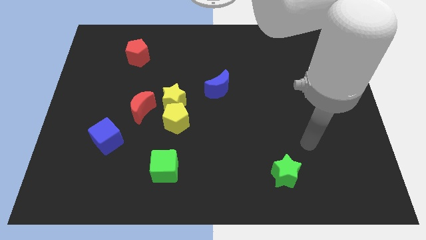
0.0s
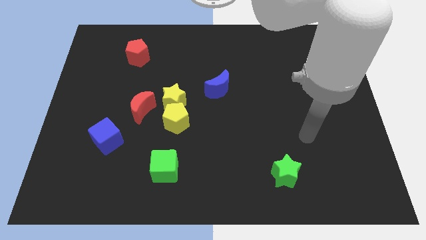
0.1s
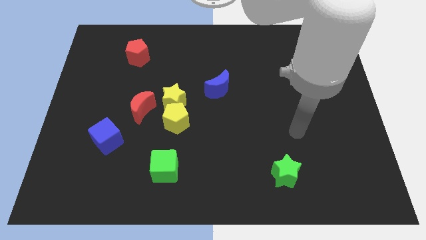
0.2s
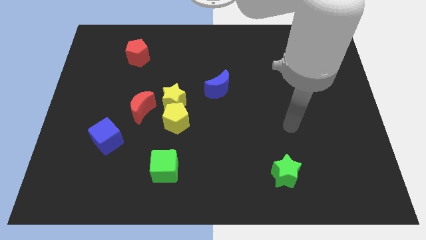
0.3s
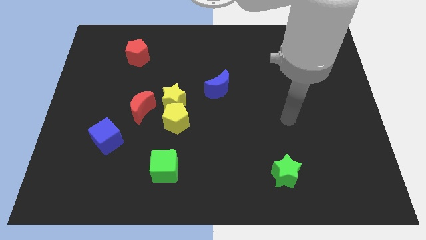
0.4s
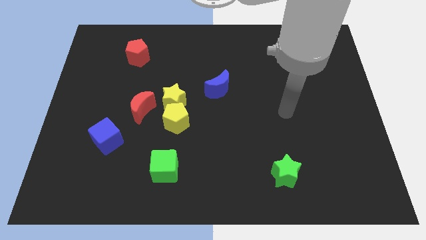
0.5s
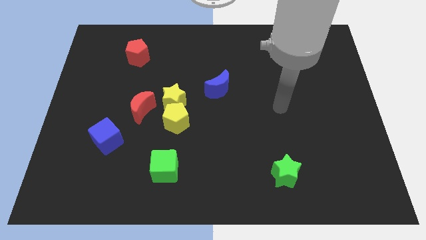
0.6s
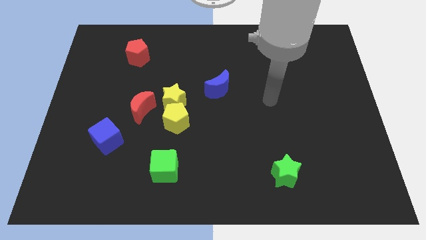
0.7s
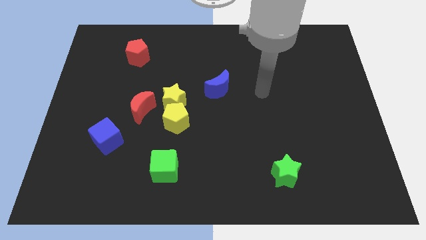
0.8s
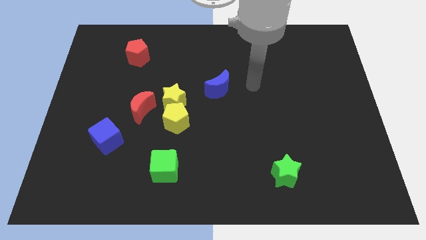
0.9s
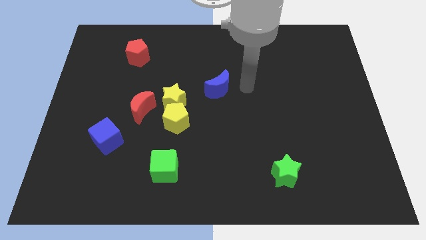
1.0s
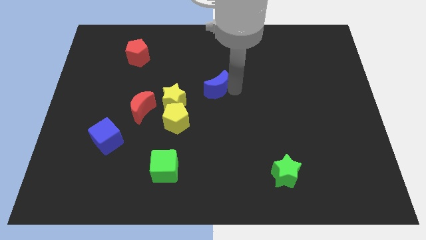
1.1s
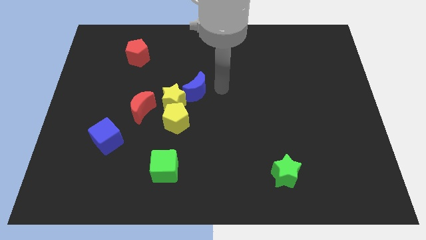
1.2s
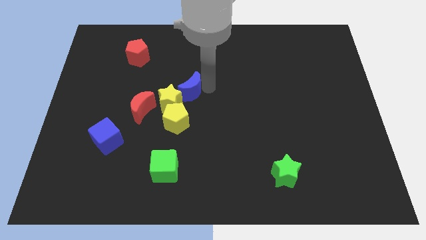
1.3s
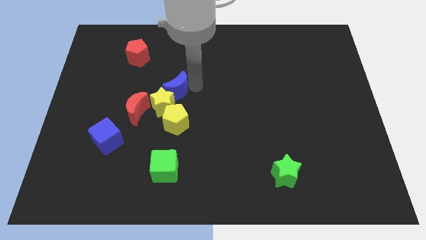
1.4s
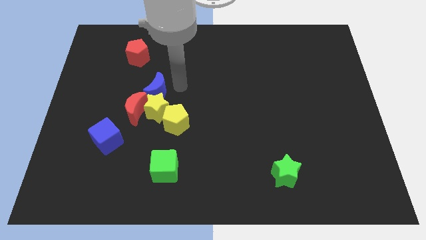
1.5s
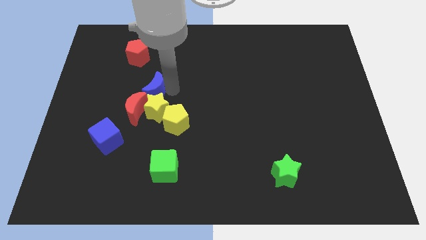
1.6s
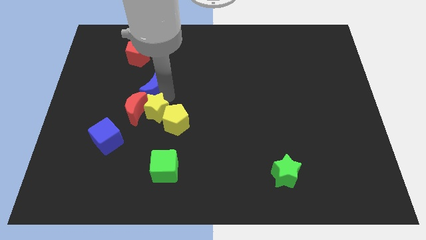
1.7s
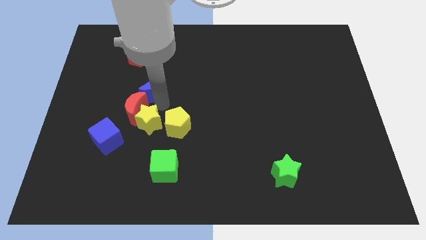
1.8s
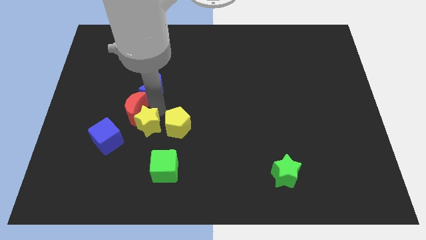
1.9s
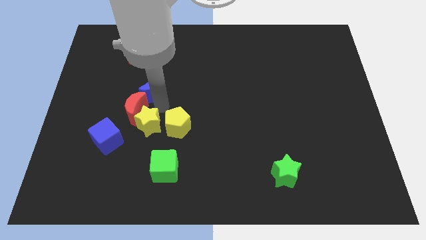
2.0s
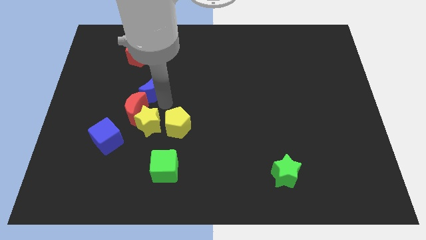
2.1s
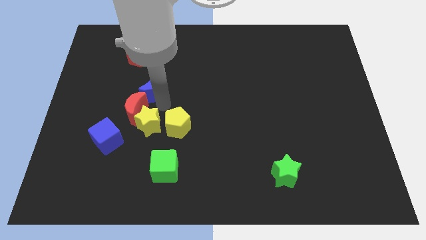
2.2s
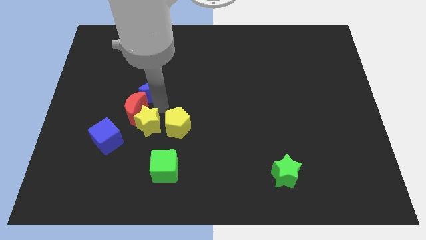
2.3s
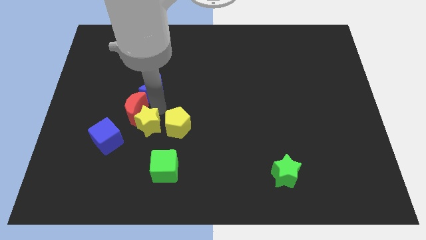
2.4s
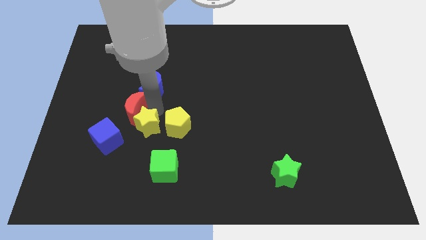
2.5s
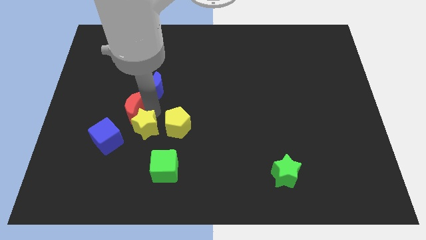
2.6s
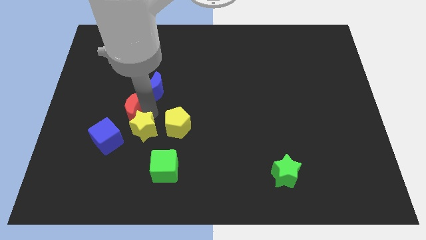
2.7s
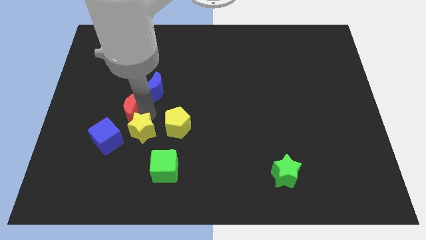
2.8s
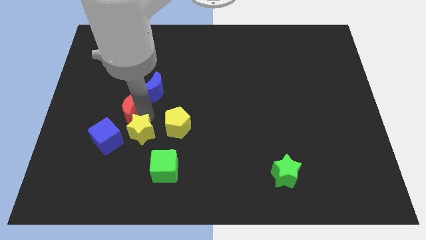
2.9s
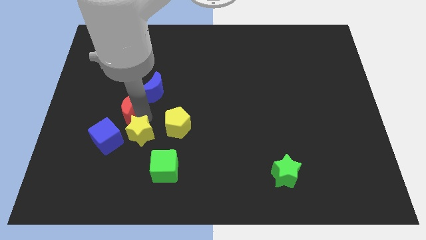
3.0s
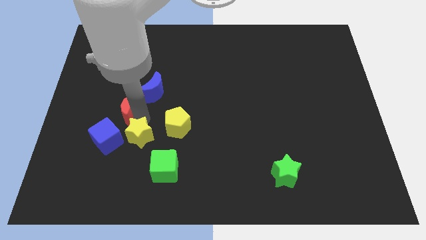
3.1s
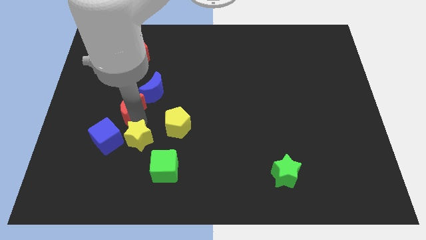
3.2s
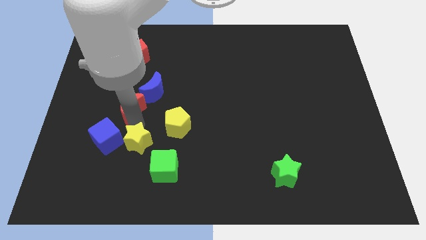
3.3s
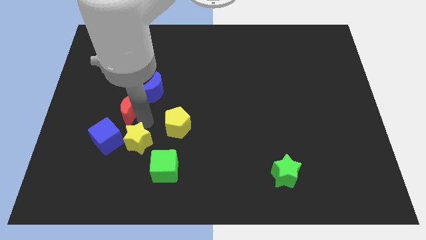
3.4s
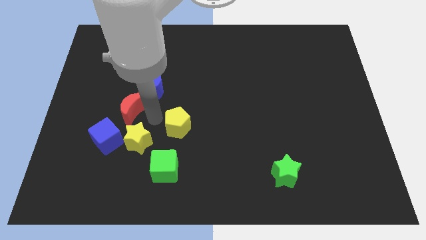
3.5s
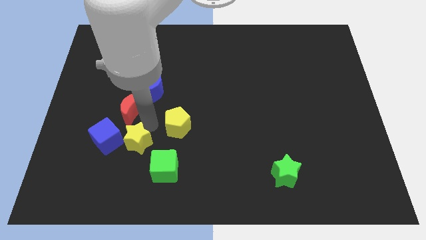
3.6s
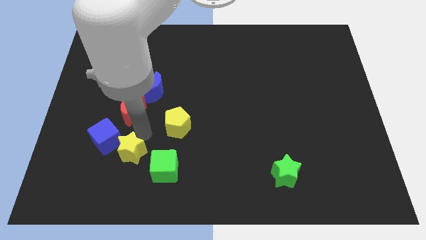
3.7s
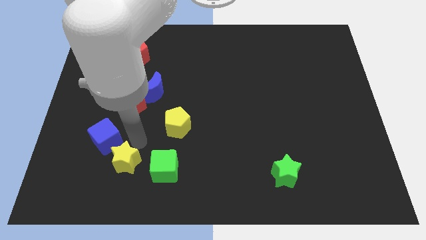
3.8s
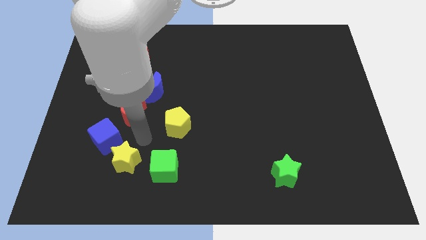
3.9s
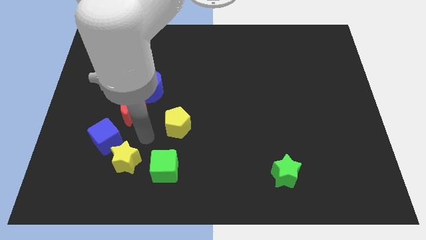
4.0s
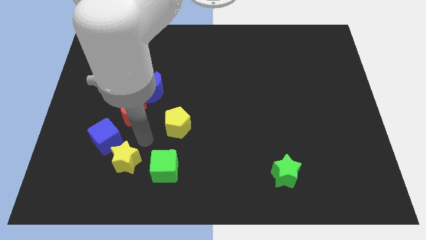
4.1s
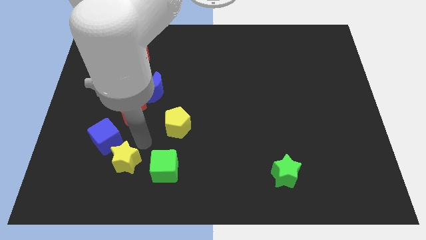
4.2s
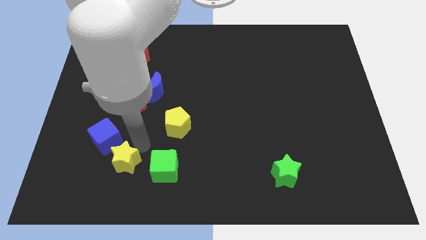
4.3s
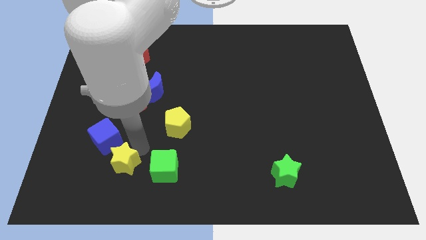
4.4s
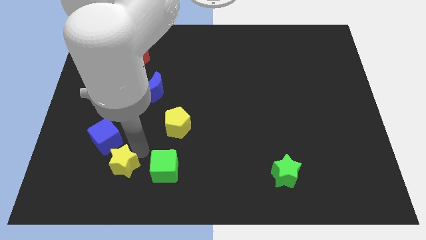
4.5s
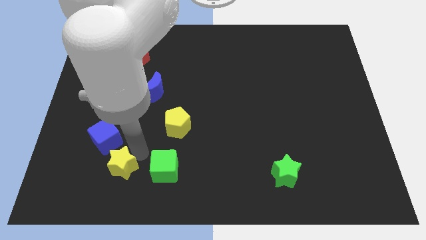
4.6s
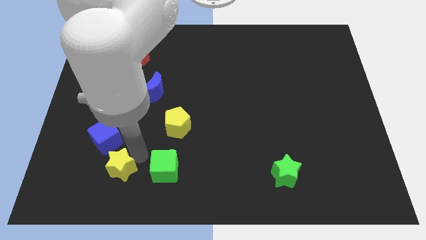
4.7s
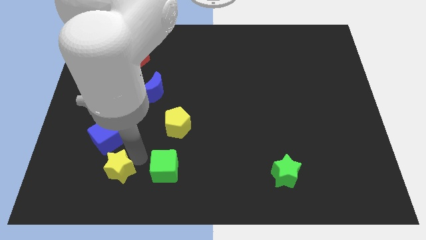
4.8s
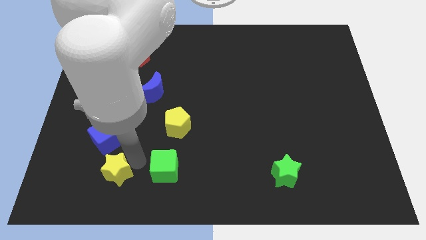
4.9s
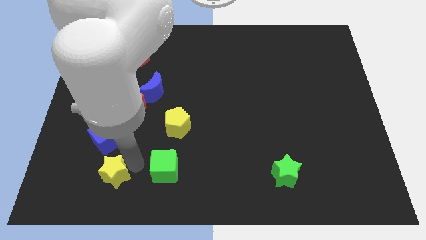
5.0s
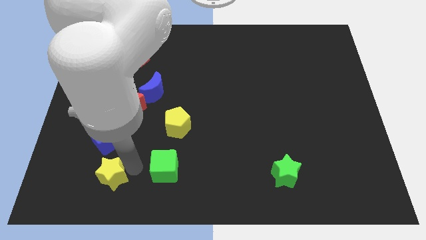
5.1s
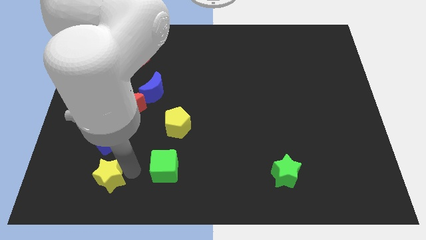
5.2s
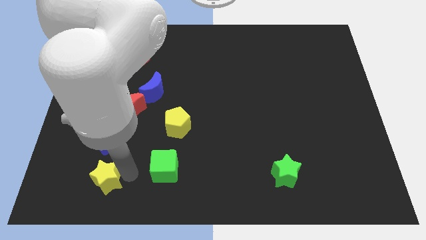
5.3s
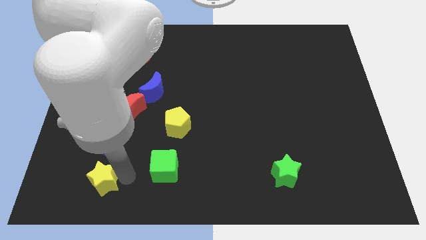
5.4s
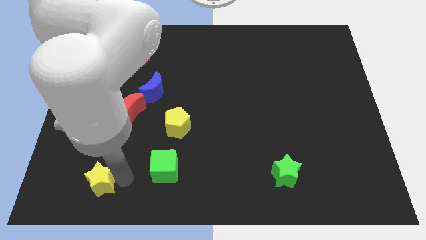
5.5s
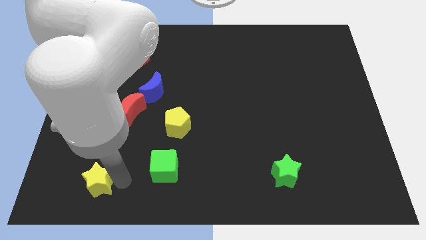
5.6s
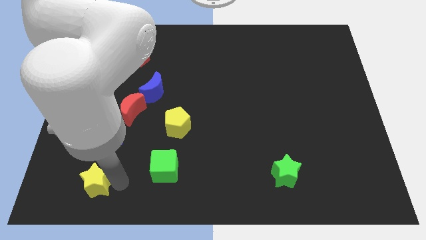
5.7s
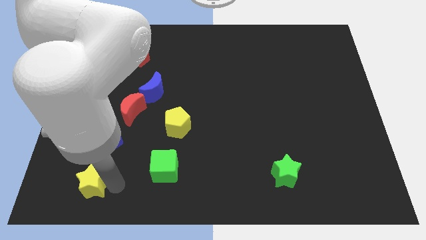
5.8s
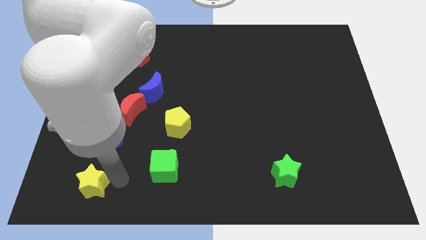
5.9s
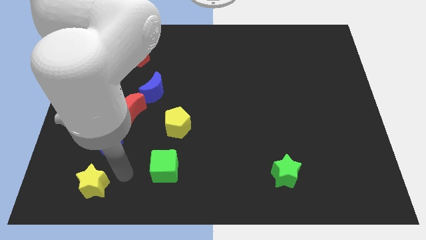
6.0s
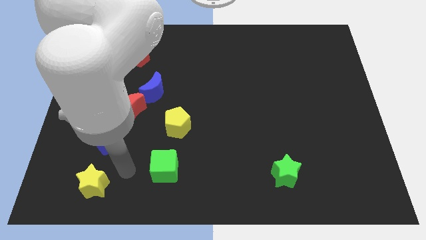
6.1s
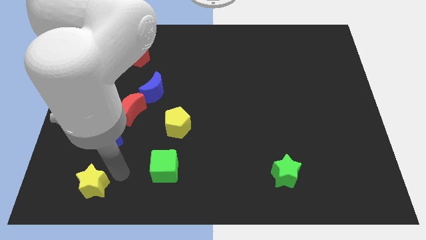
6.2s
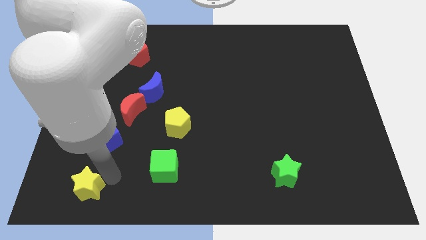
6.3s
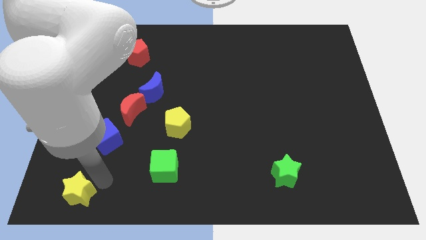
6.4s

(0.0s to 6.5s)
slide the yellow star to the bottom left corner
